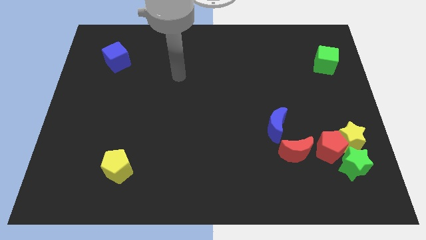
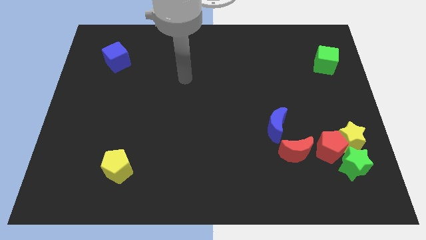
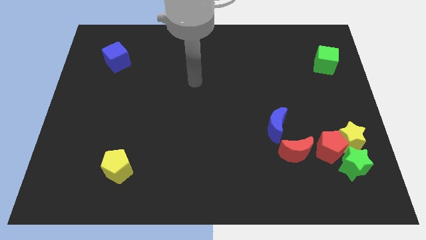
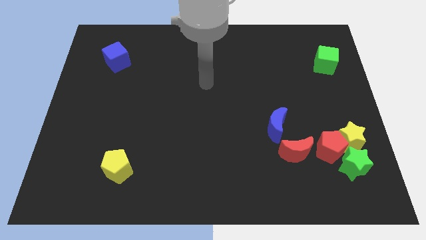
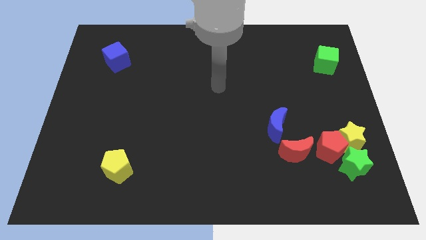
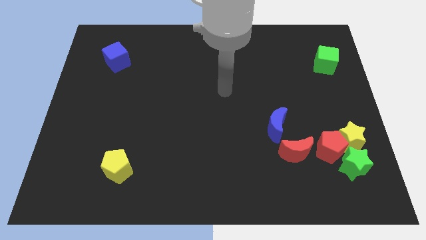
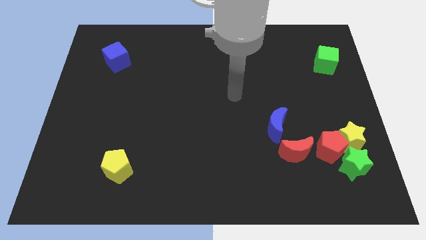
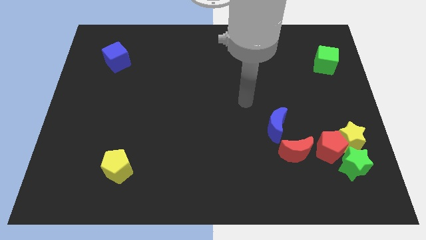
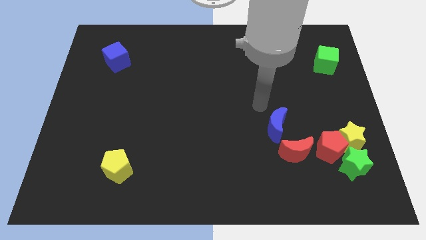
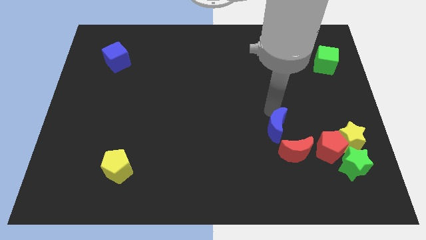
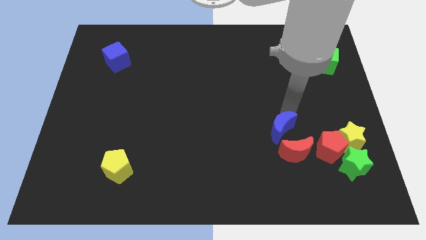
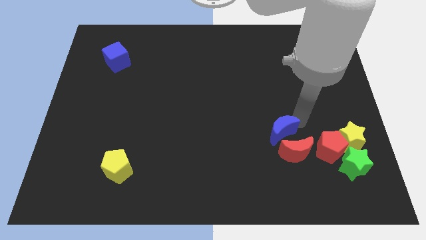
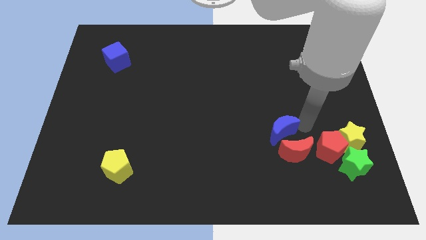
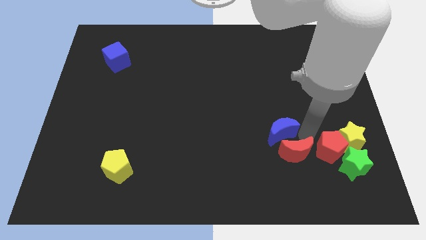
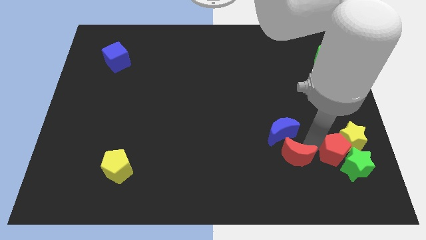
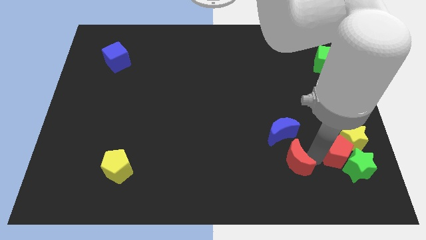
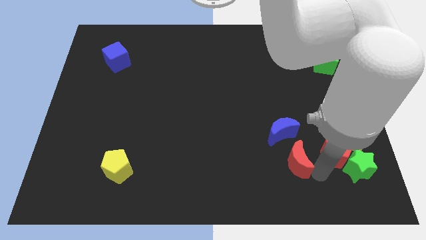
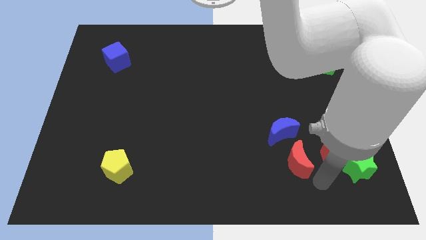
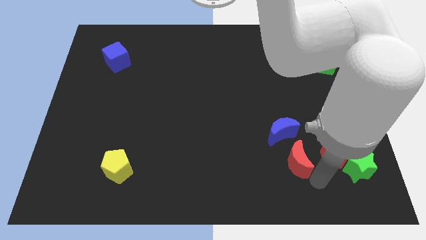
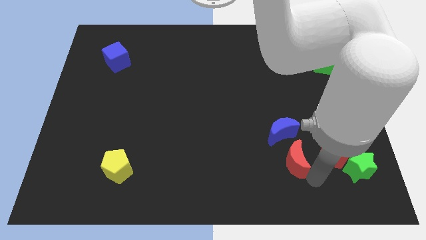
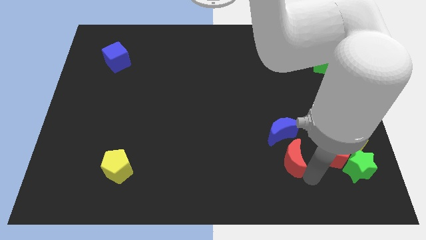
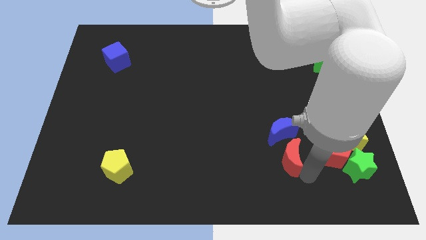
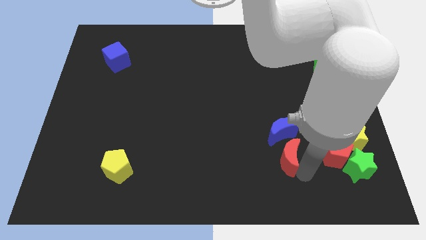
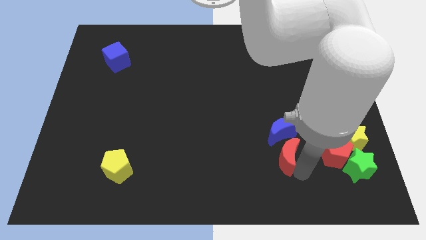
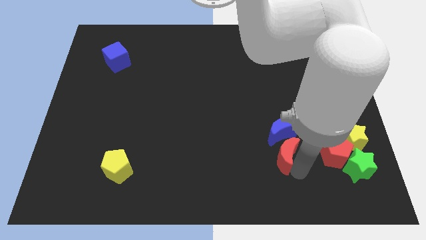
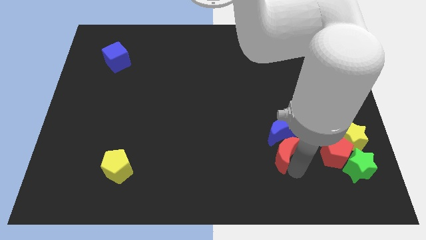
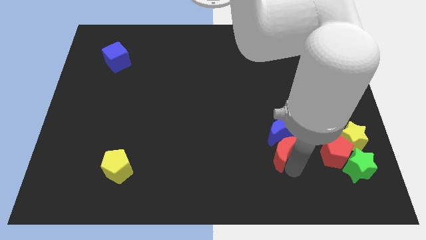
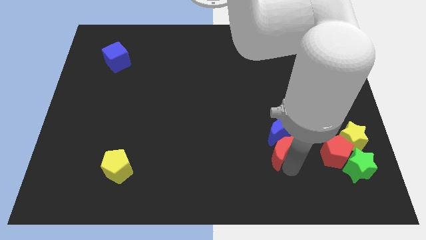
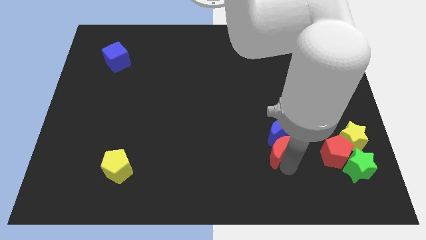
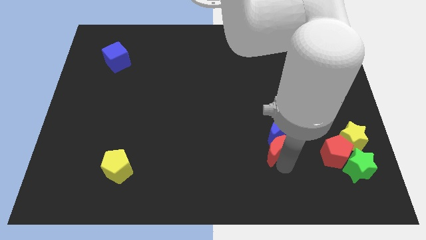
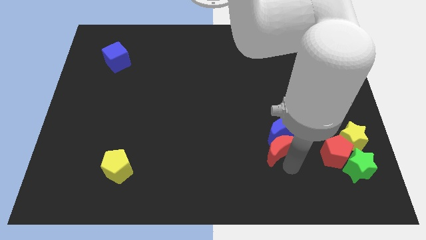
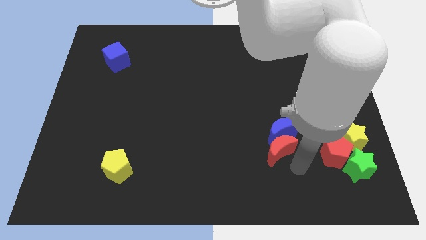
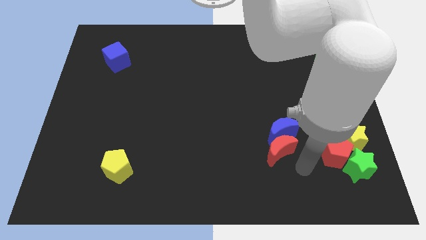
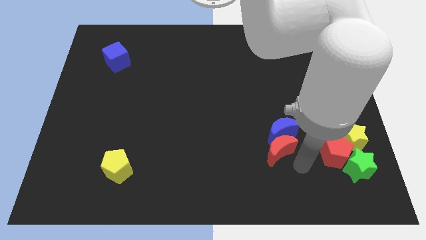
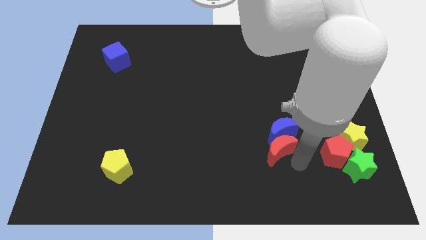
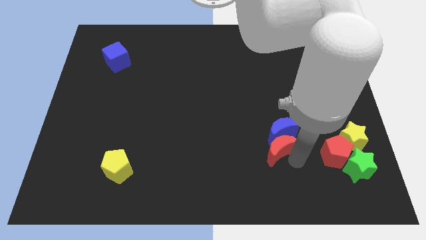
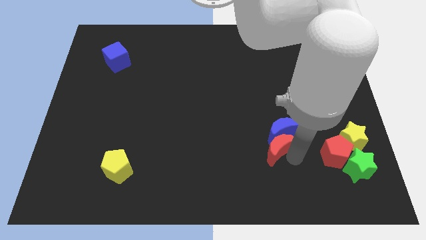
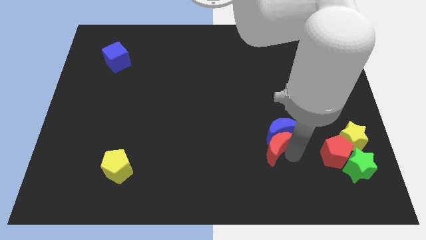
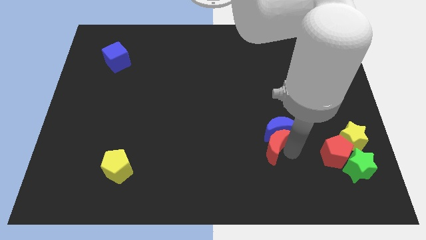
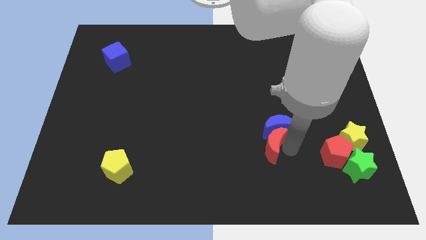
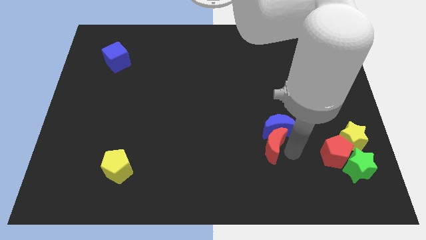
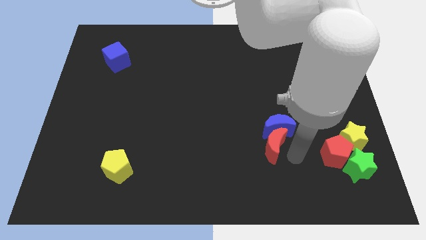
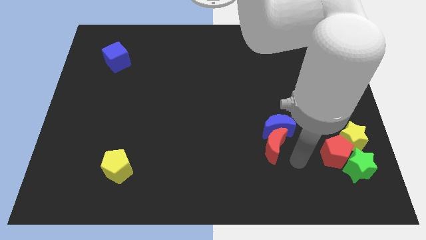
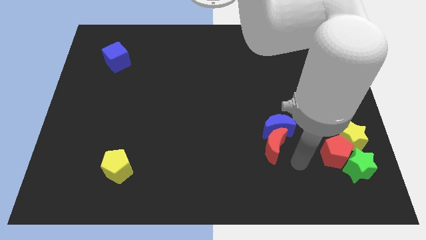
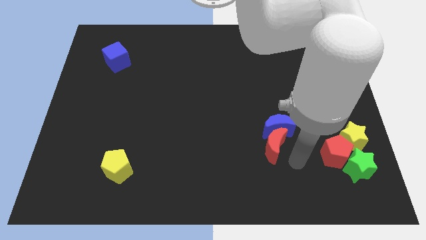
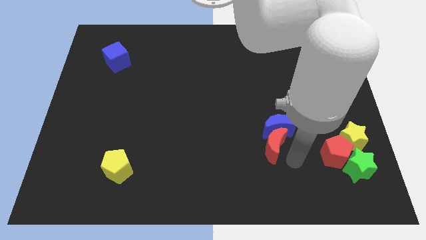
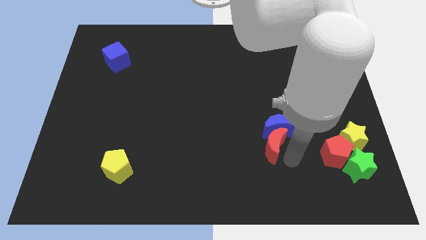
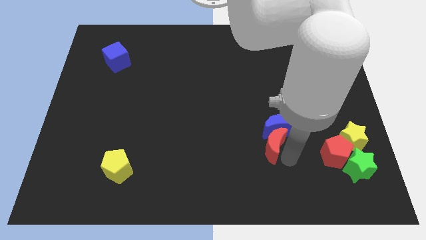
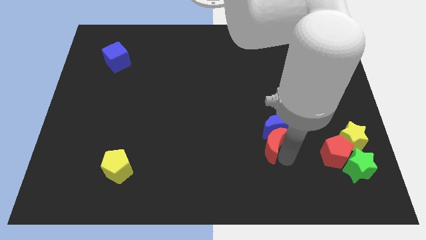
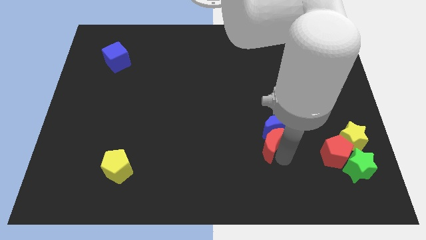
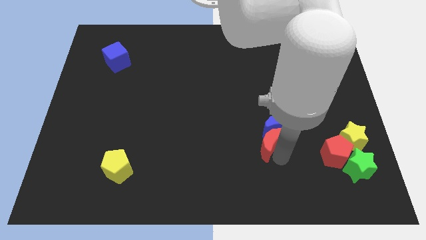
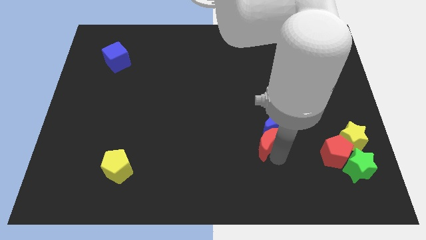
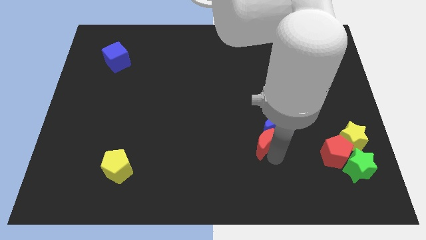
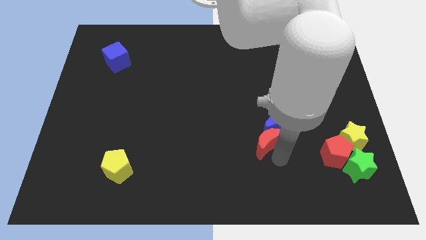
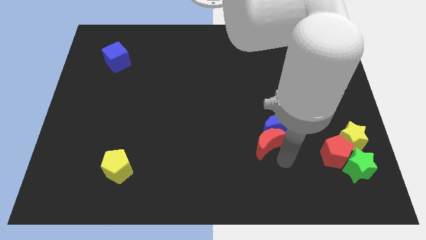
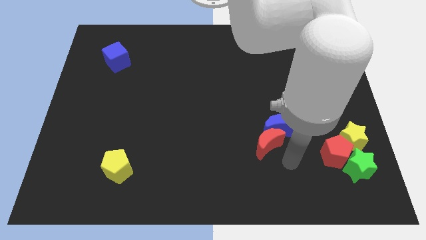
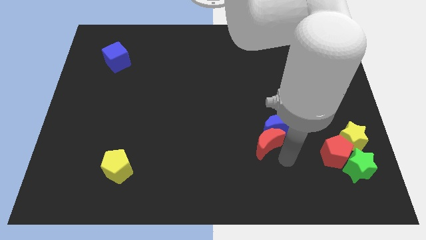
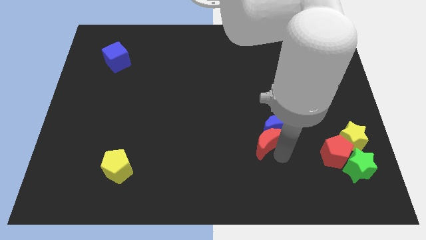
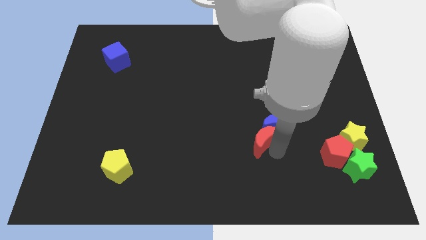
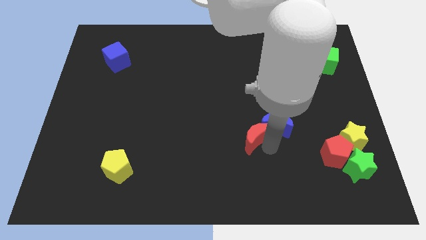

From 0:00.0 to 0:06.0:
slightly slide the red moon up and to the left

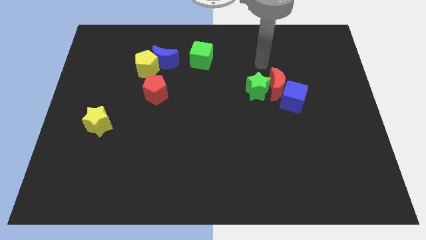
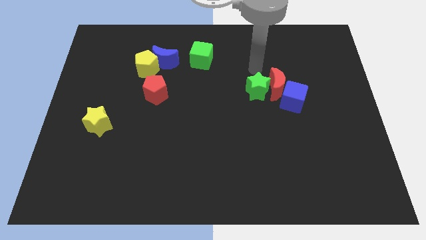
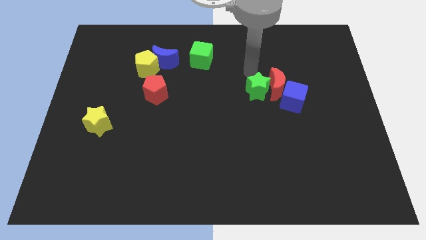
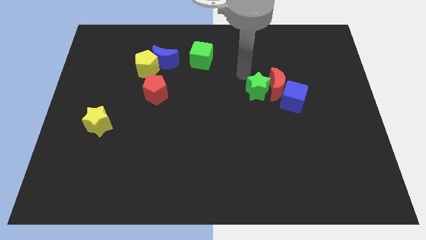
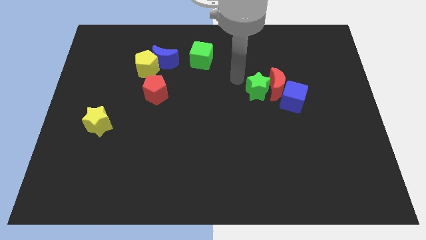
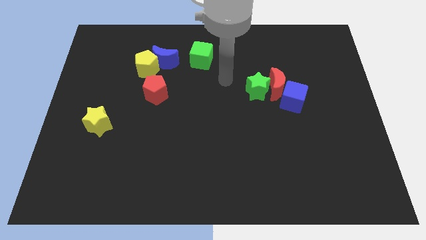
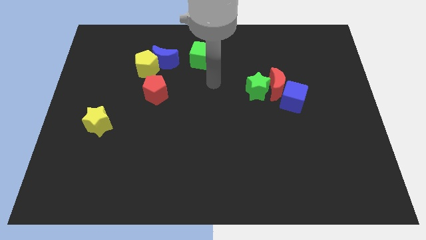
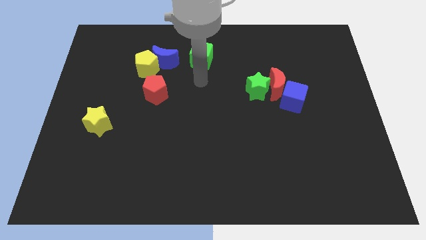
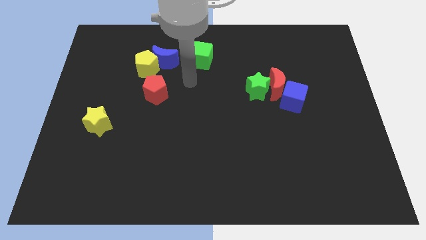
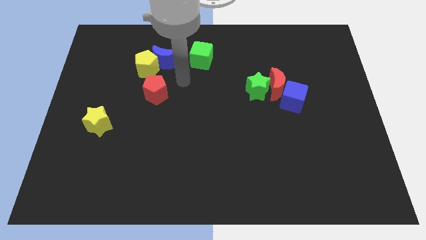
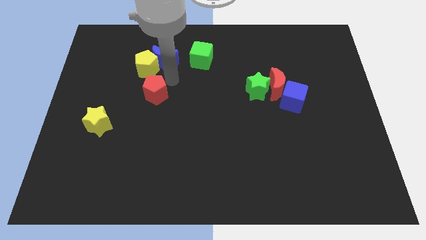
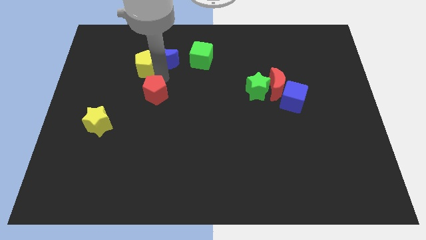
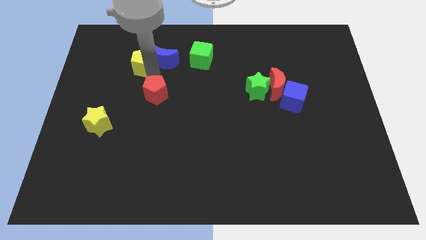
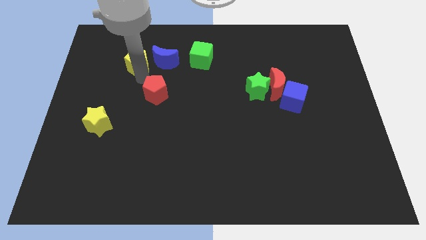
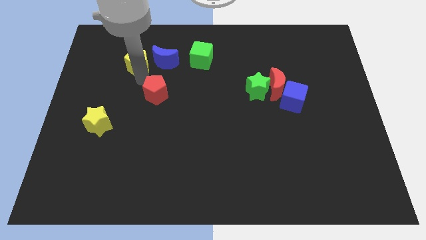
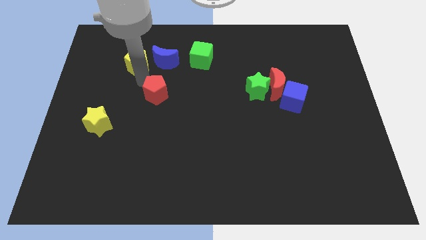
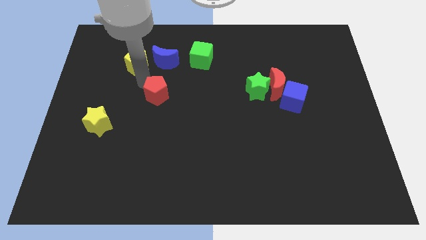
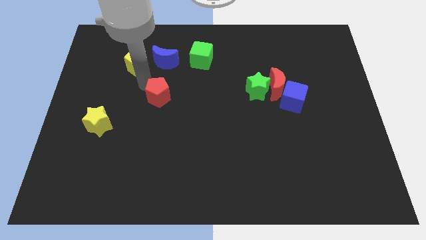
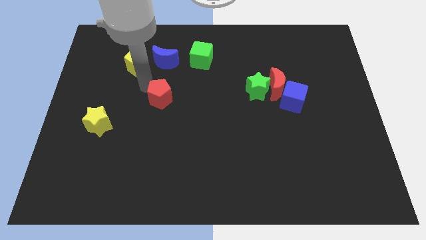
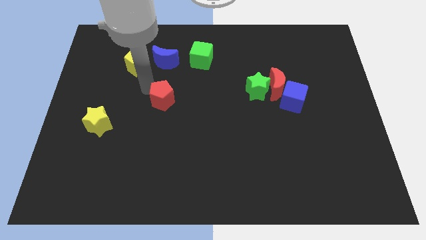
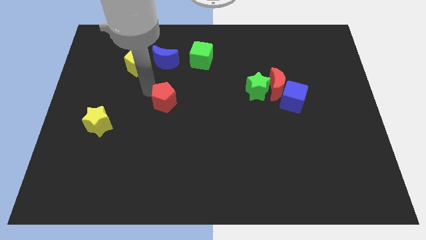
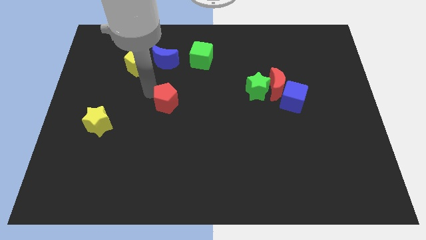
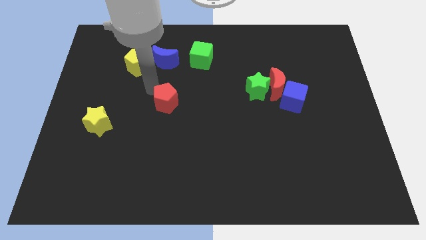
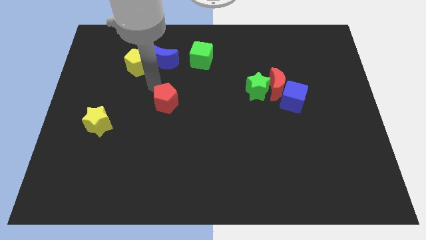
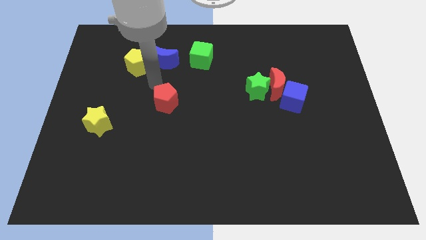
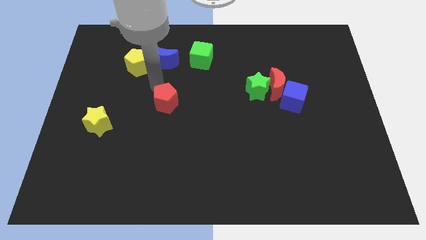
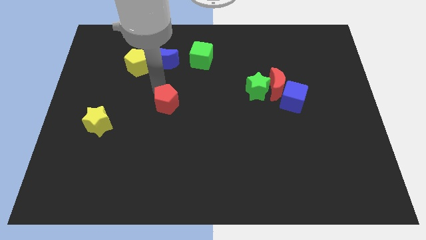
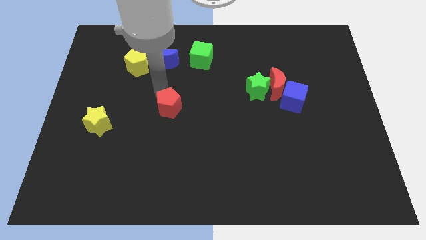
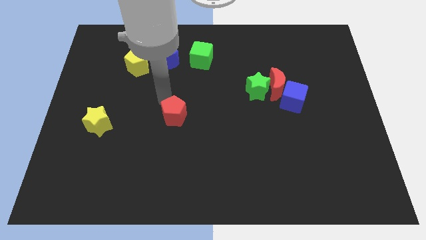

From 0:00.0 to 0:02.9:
push the red pentagon down and right diagonally a little bit
